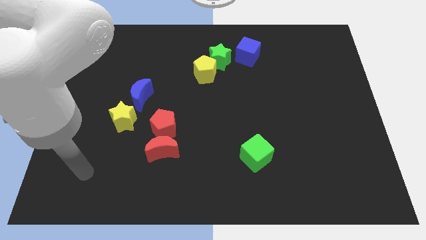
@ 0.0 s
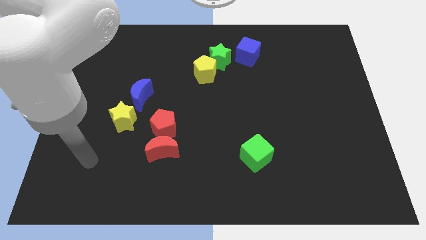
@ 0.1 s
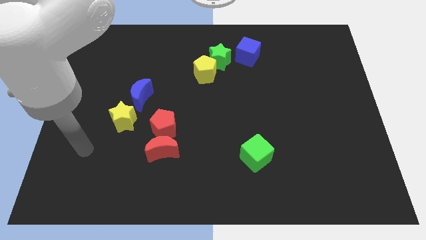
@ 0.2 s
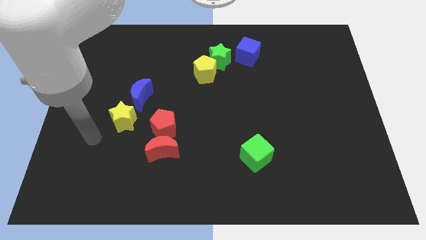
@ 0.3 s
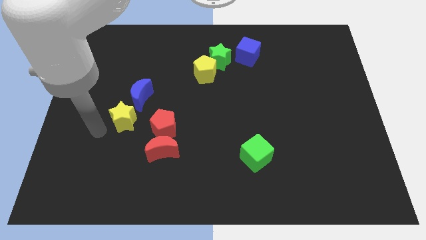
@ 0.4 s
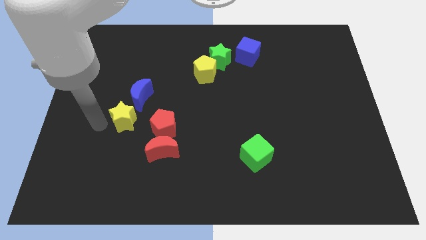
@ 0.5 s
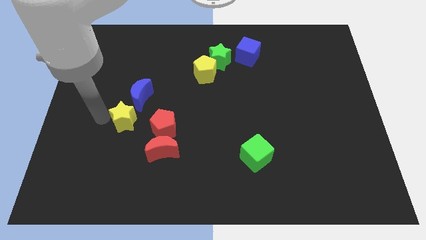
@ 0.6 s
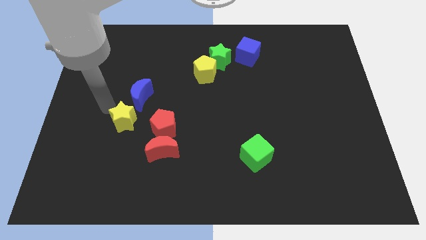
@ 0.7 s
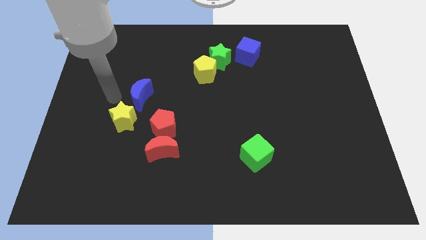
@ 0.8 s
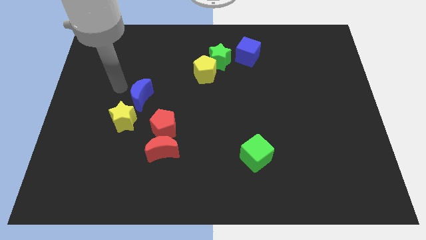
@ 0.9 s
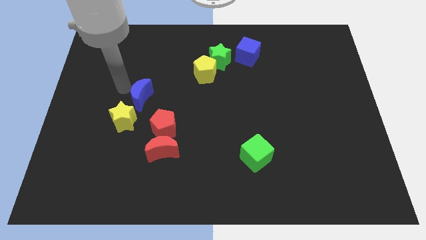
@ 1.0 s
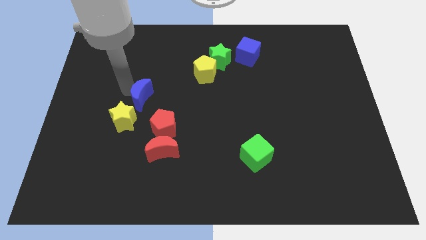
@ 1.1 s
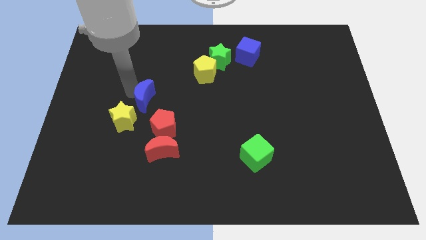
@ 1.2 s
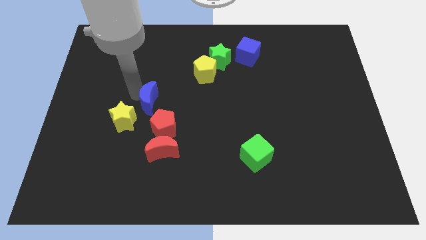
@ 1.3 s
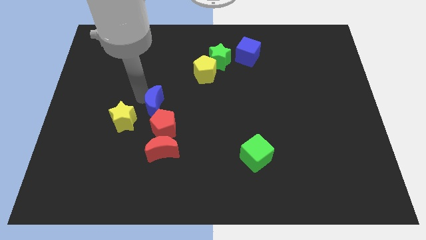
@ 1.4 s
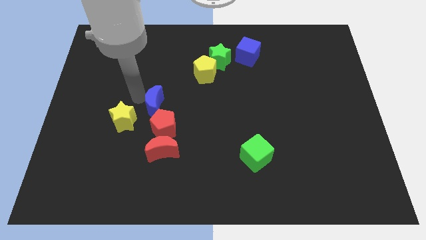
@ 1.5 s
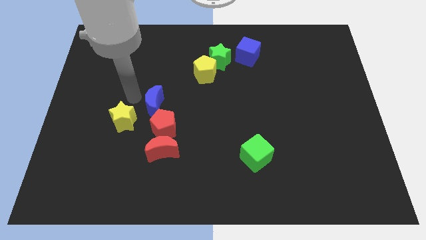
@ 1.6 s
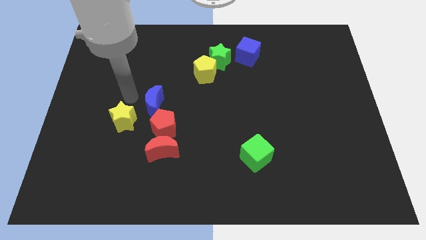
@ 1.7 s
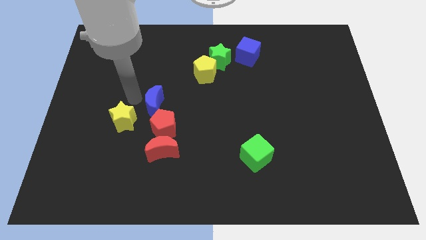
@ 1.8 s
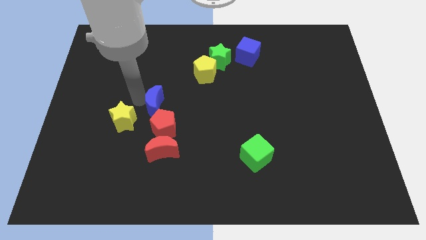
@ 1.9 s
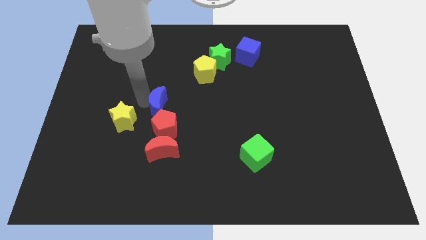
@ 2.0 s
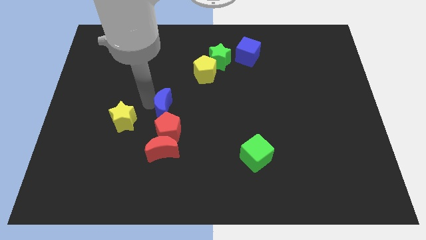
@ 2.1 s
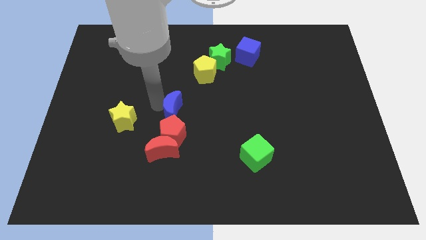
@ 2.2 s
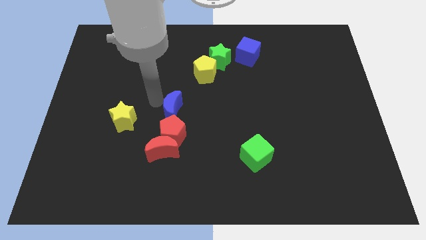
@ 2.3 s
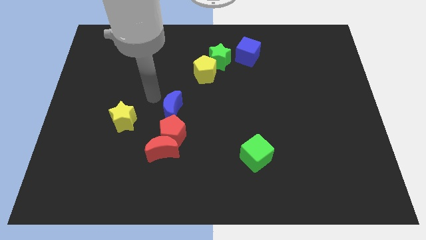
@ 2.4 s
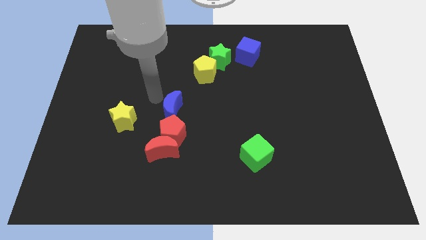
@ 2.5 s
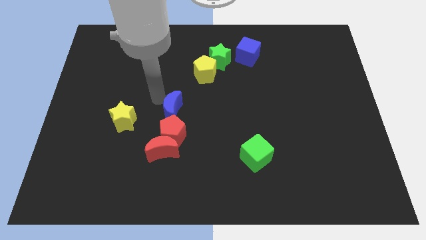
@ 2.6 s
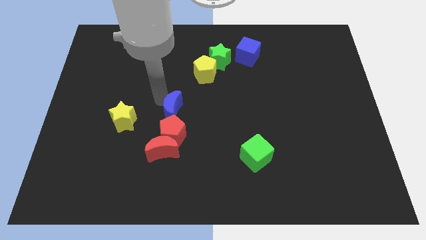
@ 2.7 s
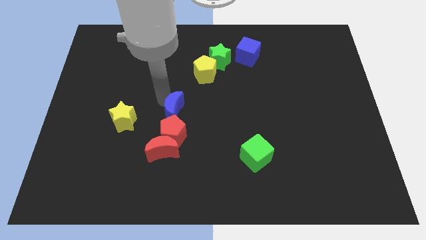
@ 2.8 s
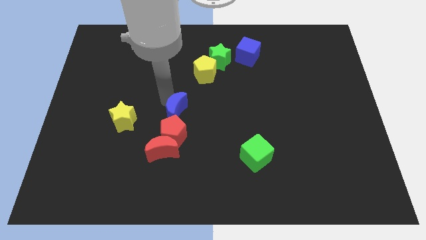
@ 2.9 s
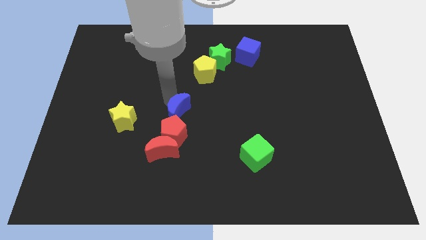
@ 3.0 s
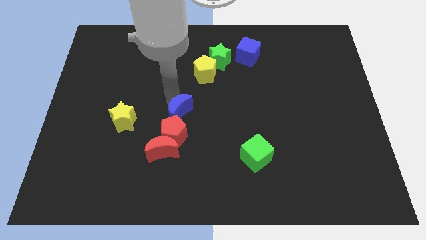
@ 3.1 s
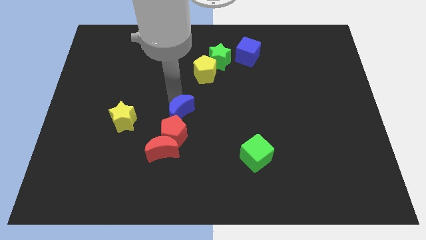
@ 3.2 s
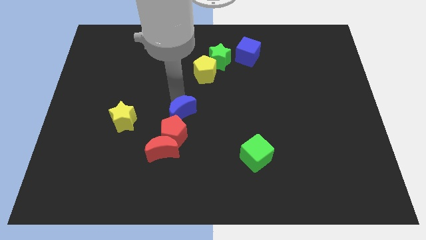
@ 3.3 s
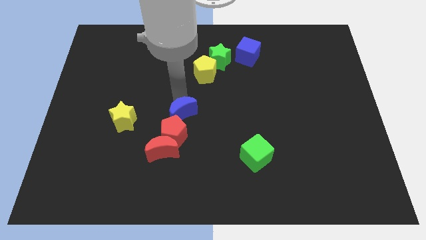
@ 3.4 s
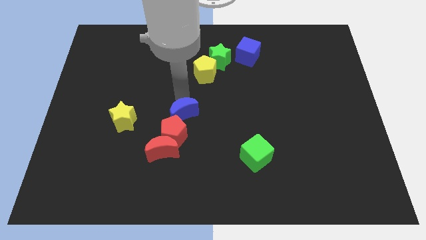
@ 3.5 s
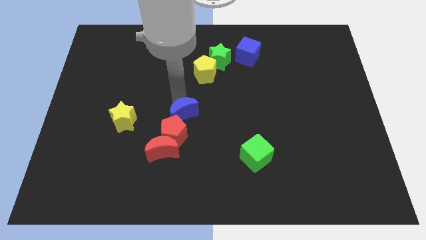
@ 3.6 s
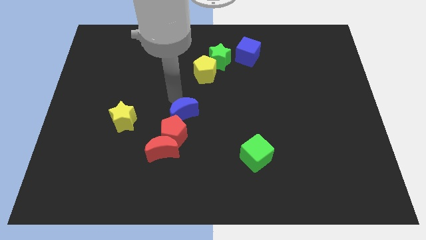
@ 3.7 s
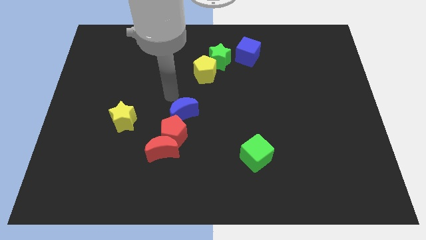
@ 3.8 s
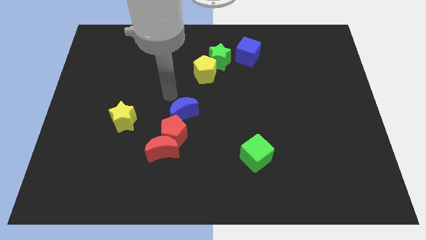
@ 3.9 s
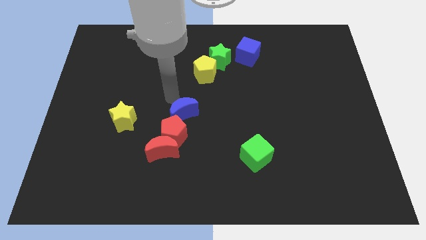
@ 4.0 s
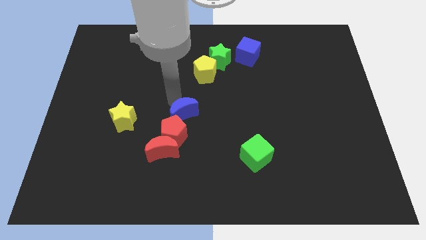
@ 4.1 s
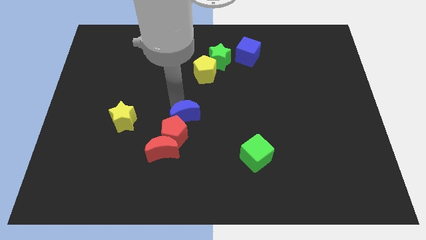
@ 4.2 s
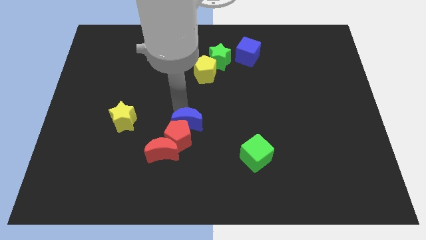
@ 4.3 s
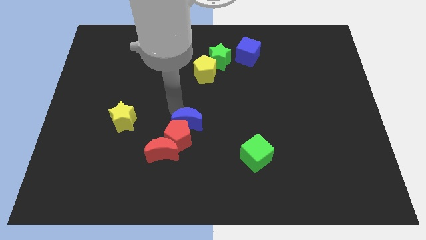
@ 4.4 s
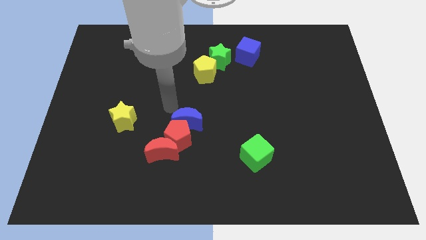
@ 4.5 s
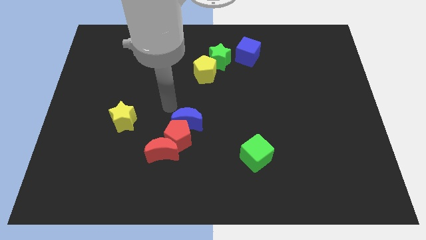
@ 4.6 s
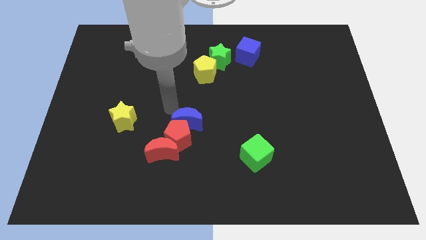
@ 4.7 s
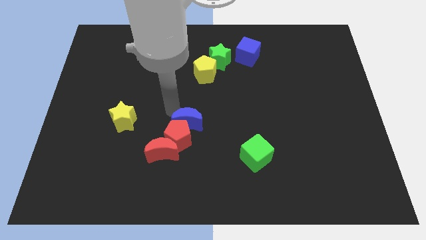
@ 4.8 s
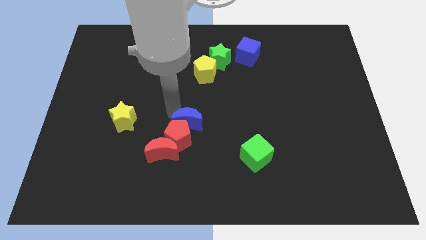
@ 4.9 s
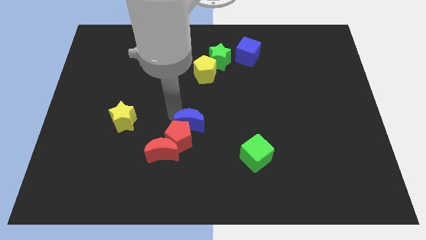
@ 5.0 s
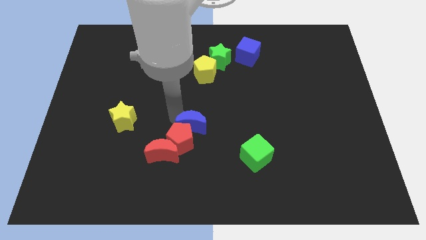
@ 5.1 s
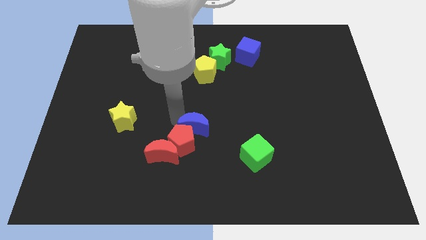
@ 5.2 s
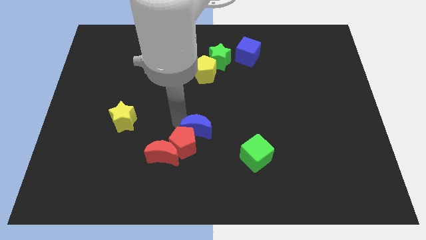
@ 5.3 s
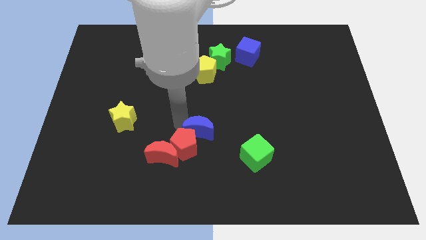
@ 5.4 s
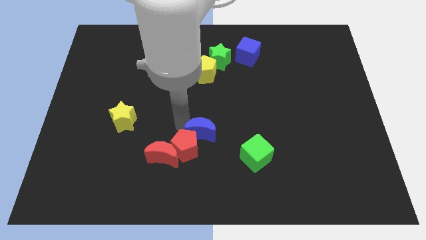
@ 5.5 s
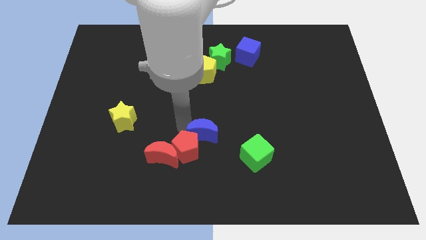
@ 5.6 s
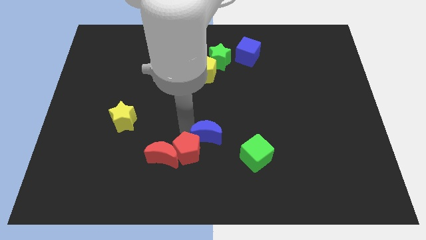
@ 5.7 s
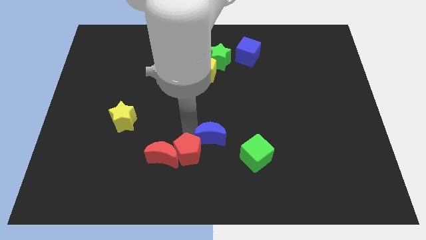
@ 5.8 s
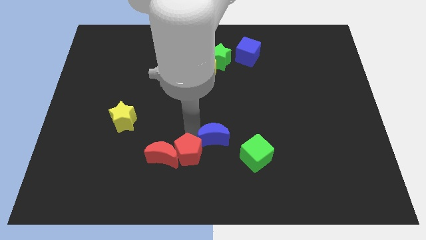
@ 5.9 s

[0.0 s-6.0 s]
move the blue moon down and to the right diagonally

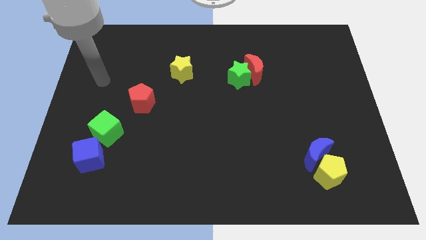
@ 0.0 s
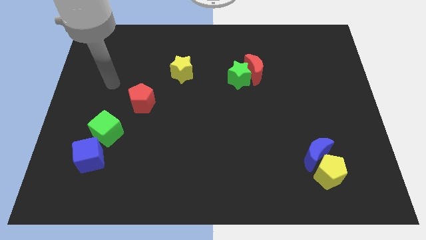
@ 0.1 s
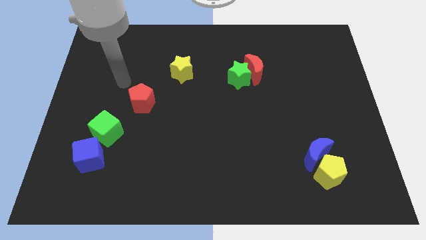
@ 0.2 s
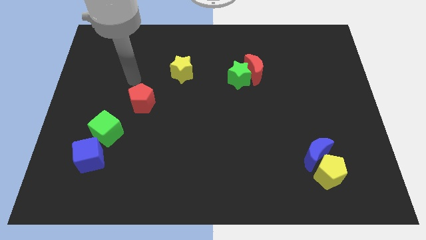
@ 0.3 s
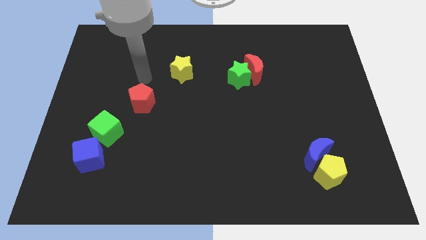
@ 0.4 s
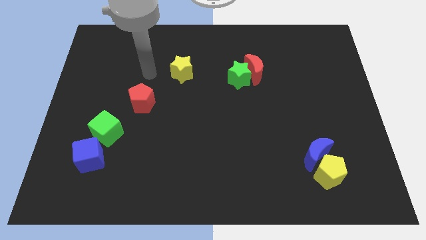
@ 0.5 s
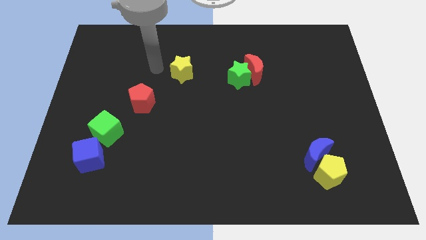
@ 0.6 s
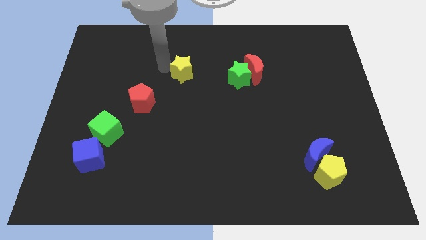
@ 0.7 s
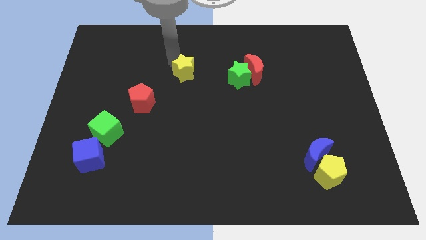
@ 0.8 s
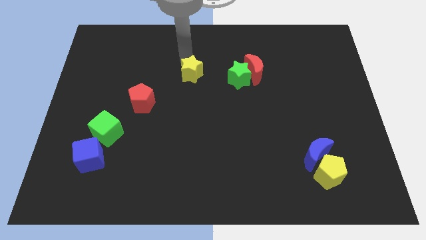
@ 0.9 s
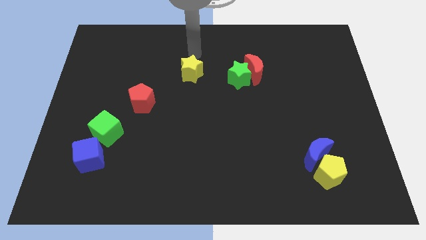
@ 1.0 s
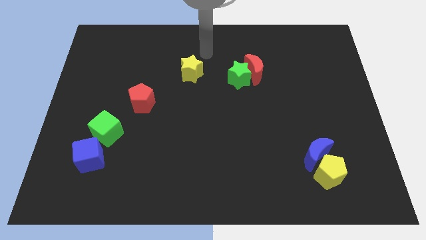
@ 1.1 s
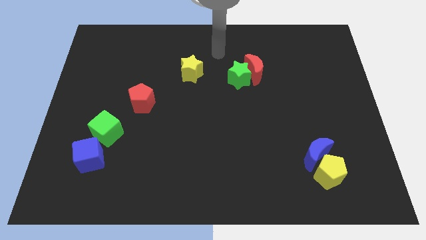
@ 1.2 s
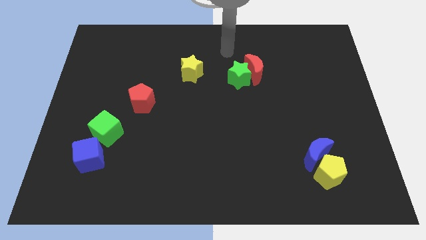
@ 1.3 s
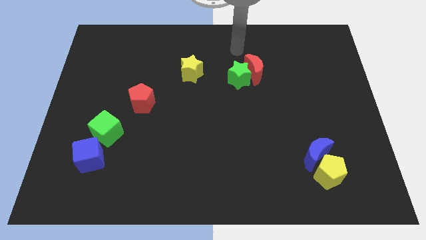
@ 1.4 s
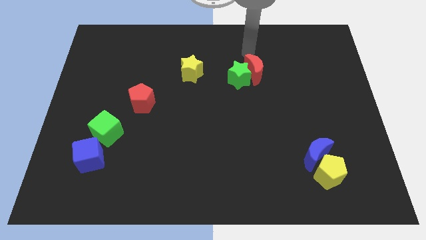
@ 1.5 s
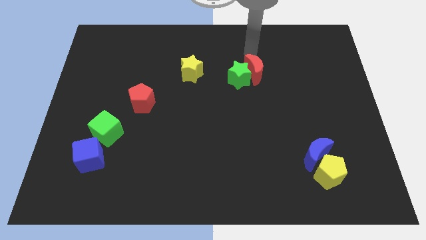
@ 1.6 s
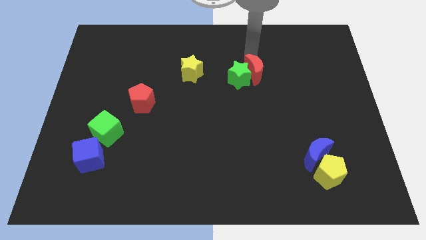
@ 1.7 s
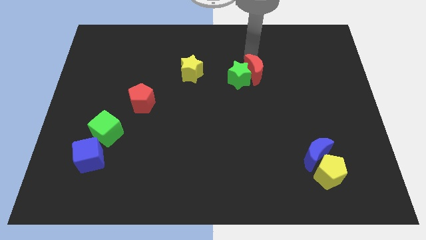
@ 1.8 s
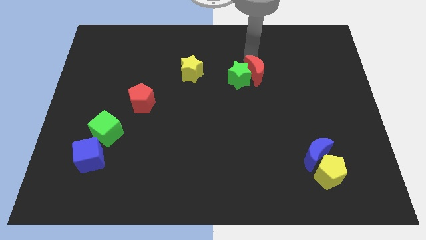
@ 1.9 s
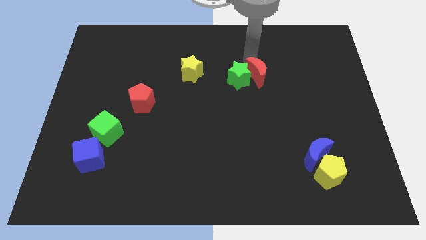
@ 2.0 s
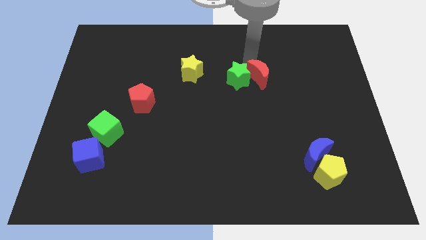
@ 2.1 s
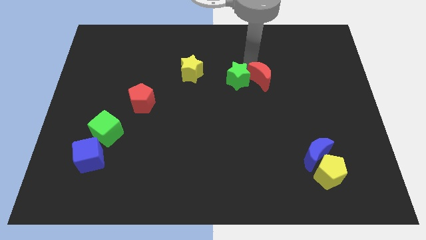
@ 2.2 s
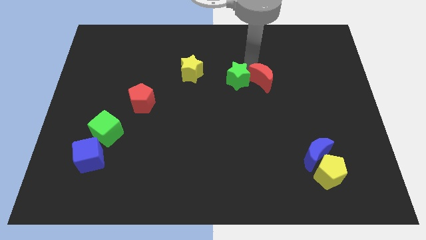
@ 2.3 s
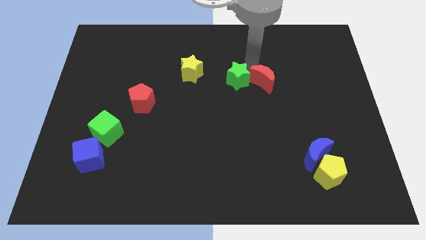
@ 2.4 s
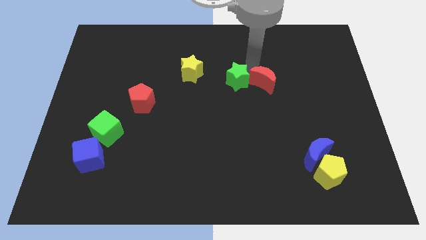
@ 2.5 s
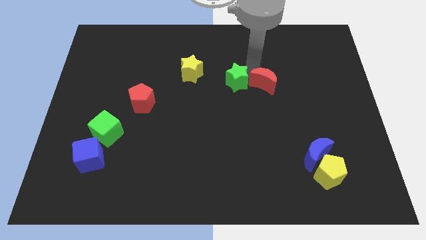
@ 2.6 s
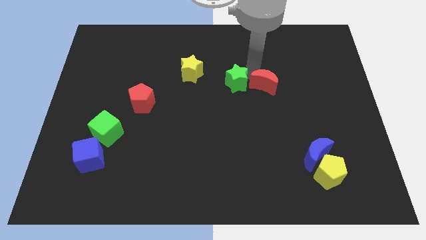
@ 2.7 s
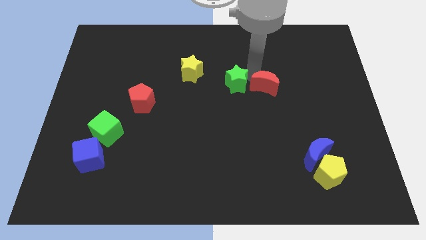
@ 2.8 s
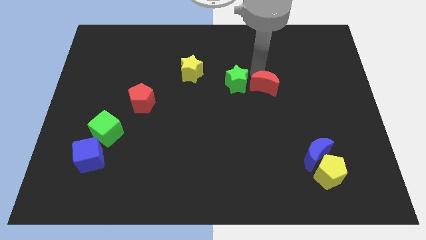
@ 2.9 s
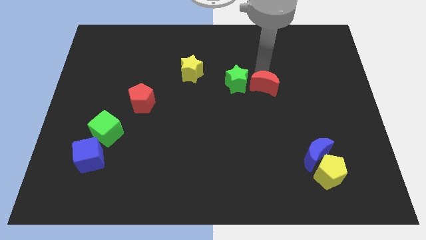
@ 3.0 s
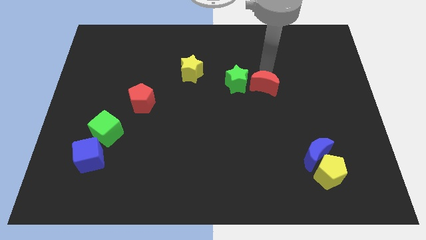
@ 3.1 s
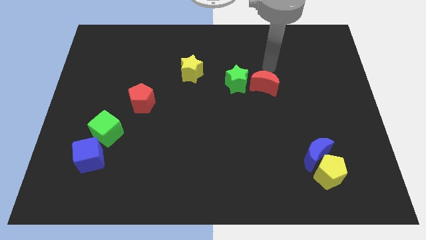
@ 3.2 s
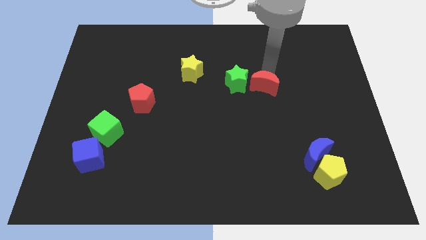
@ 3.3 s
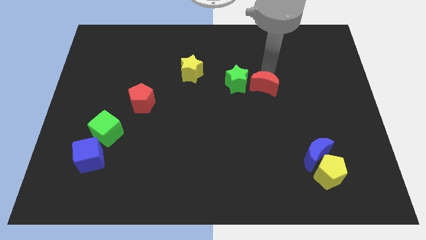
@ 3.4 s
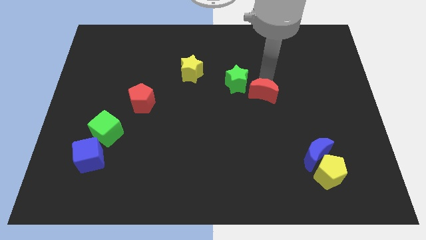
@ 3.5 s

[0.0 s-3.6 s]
slightly slide the red moon down
